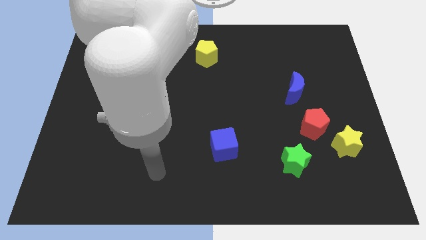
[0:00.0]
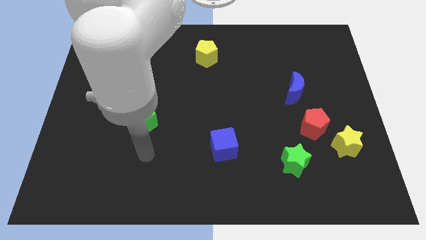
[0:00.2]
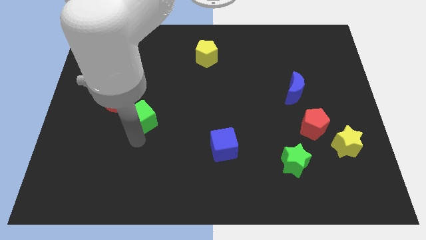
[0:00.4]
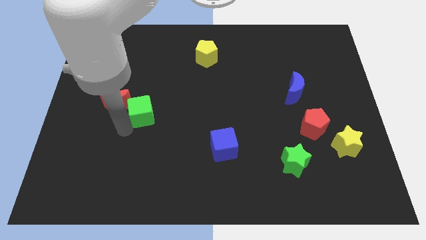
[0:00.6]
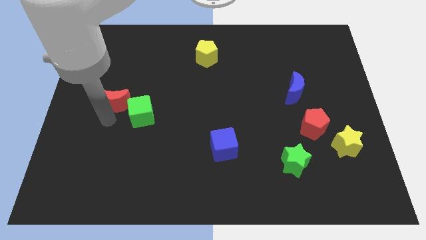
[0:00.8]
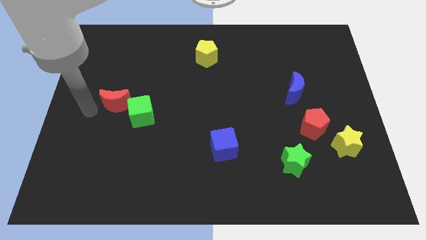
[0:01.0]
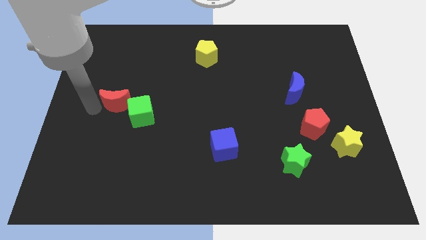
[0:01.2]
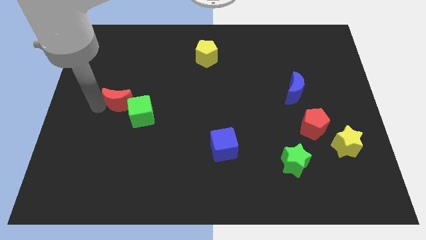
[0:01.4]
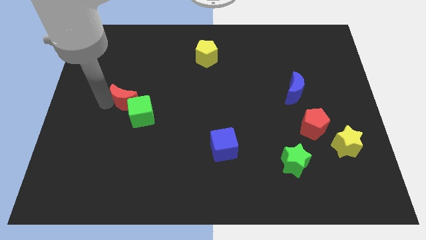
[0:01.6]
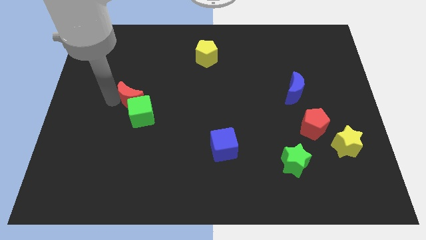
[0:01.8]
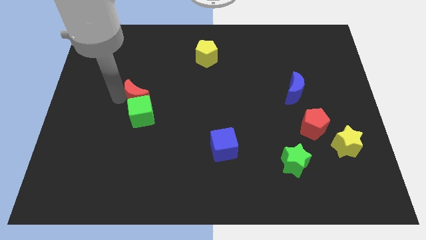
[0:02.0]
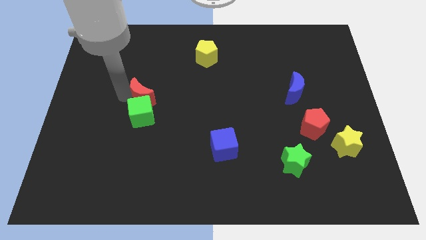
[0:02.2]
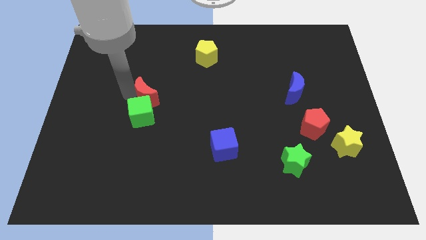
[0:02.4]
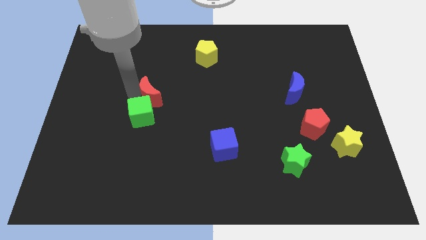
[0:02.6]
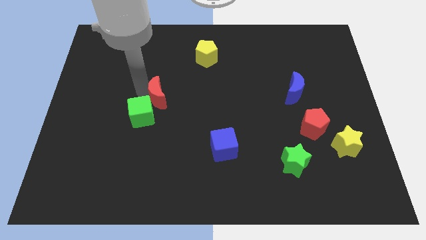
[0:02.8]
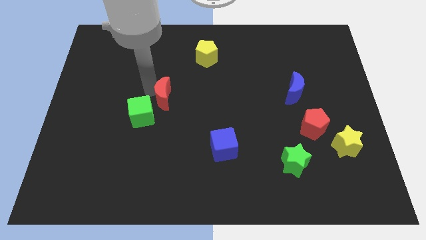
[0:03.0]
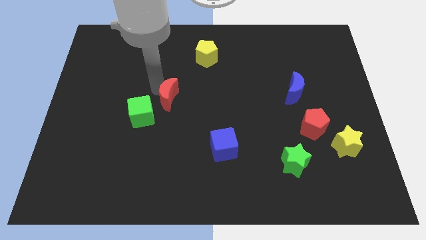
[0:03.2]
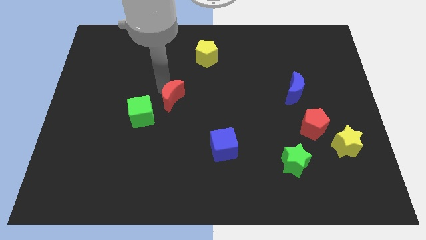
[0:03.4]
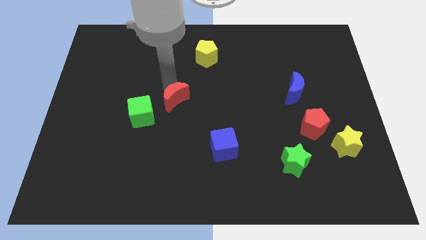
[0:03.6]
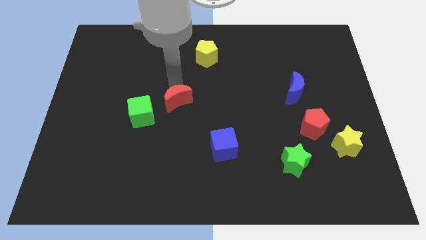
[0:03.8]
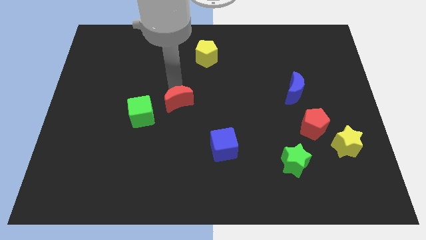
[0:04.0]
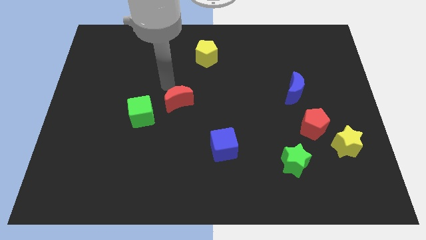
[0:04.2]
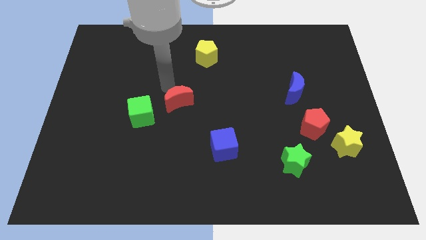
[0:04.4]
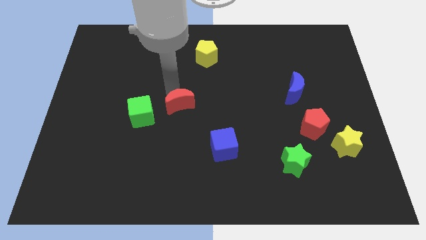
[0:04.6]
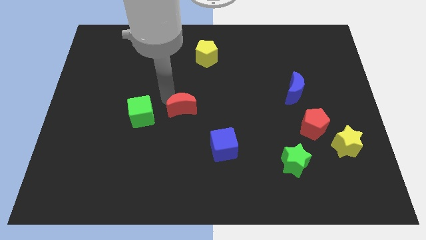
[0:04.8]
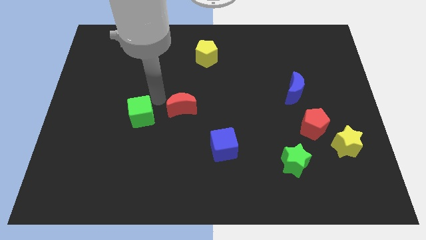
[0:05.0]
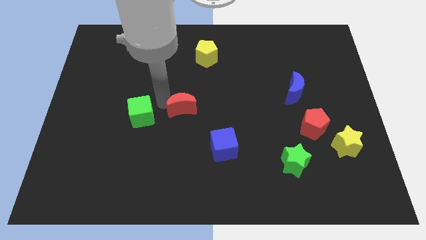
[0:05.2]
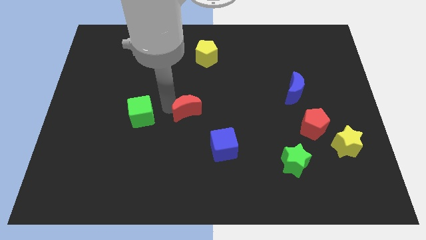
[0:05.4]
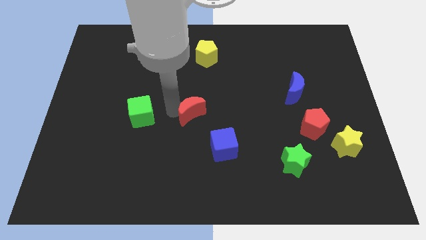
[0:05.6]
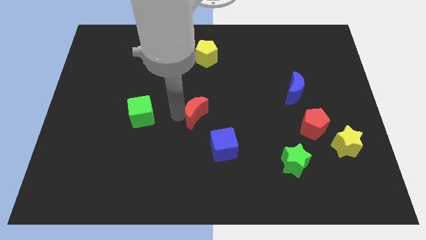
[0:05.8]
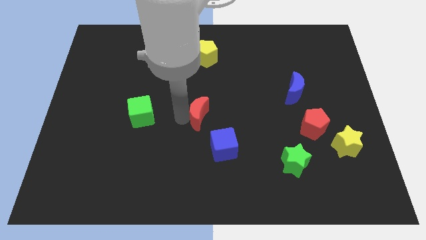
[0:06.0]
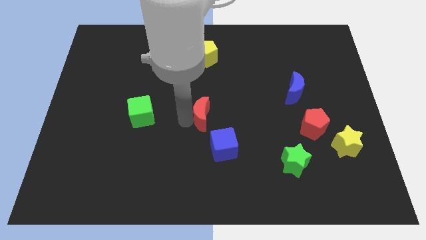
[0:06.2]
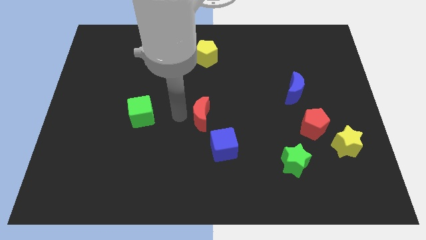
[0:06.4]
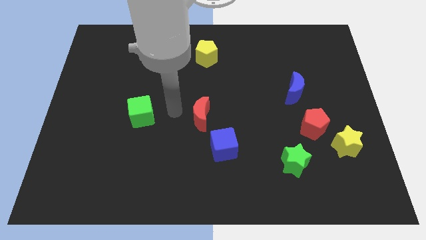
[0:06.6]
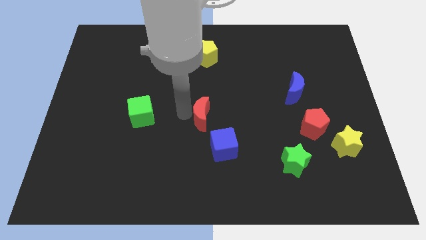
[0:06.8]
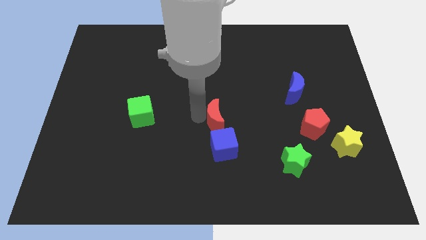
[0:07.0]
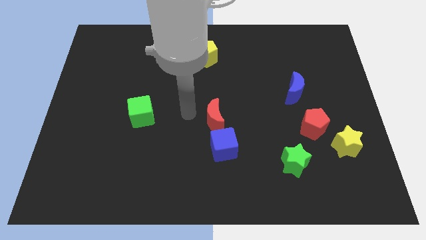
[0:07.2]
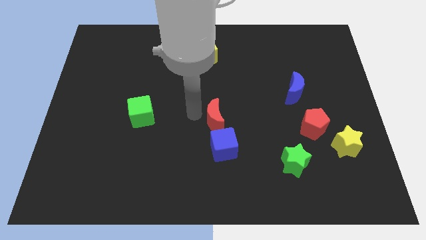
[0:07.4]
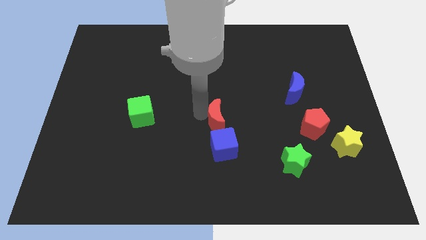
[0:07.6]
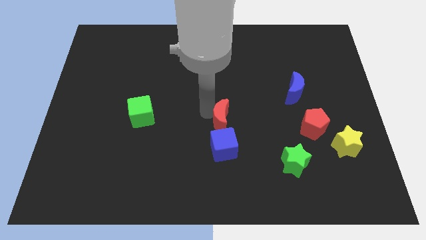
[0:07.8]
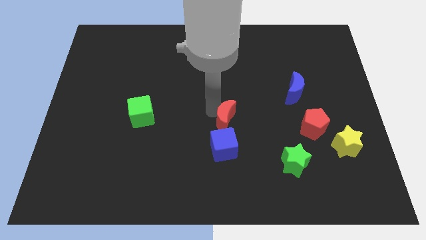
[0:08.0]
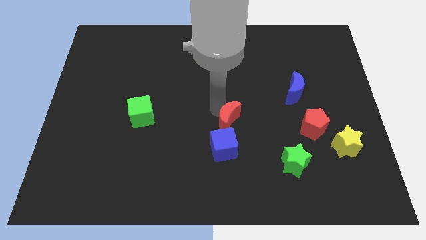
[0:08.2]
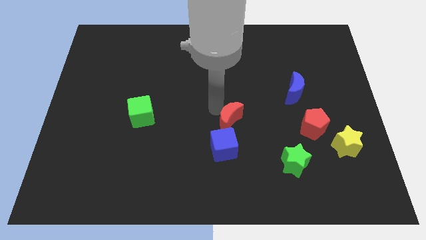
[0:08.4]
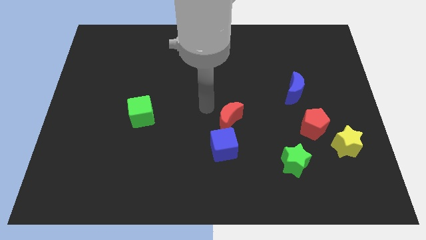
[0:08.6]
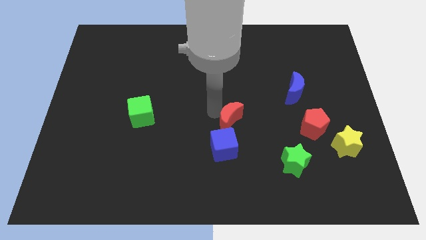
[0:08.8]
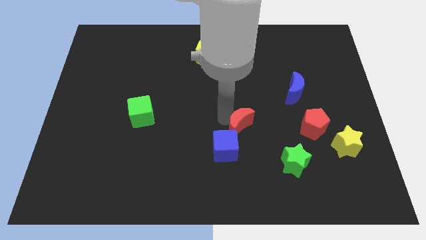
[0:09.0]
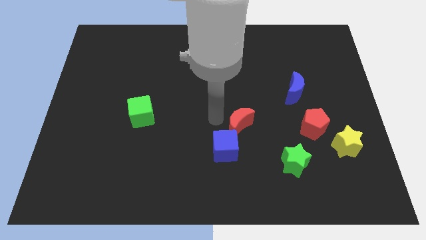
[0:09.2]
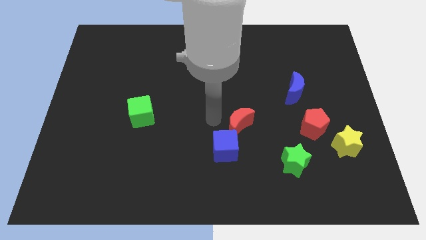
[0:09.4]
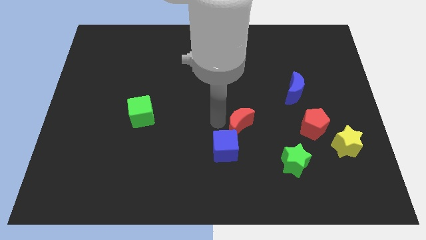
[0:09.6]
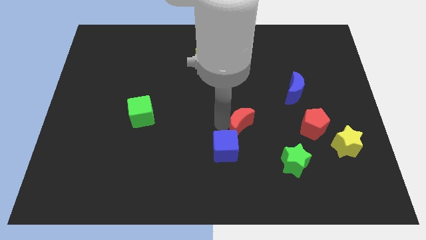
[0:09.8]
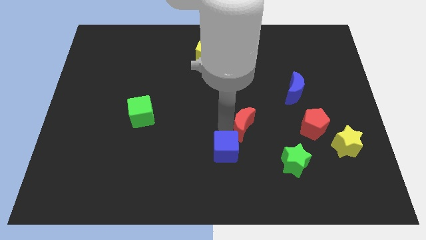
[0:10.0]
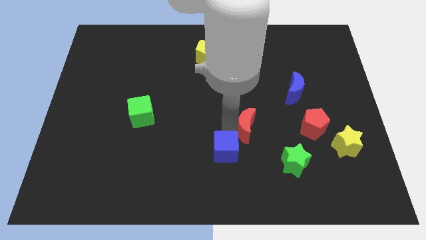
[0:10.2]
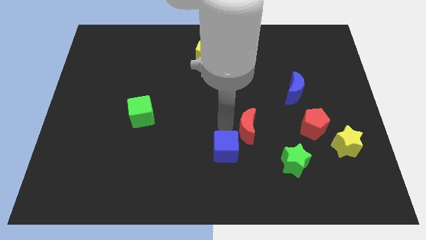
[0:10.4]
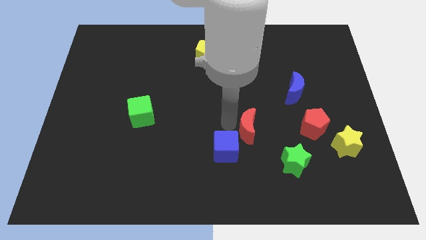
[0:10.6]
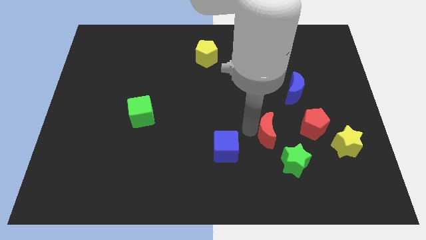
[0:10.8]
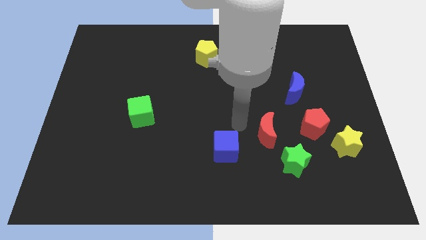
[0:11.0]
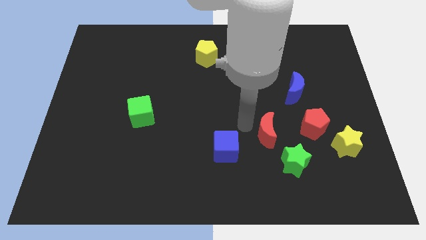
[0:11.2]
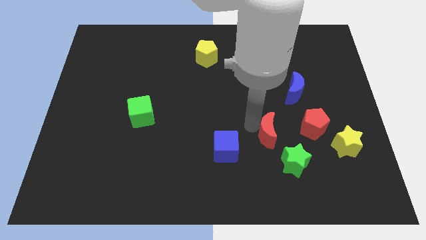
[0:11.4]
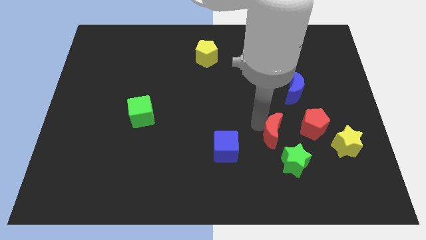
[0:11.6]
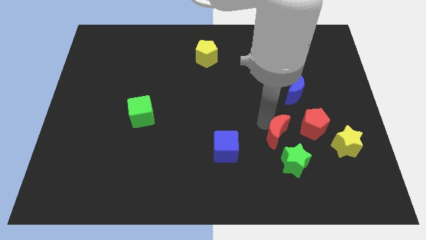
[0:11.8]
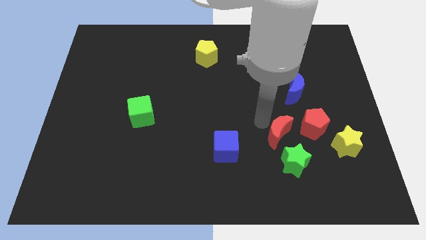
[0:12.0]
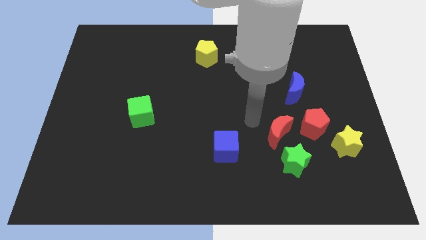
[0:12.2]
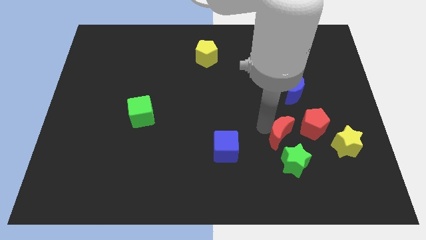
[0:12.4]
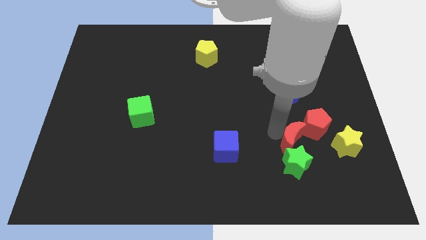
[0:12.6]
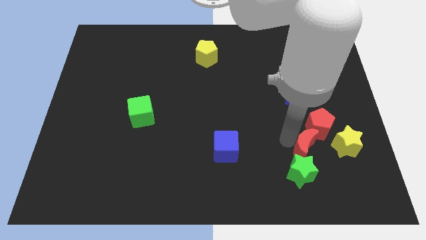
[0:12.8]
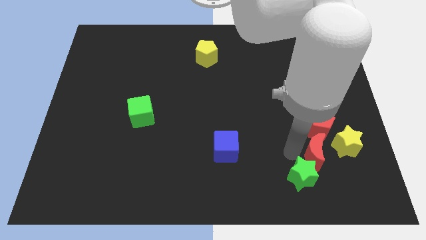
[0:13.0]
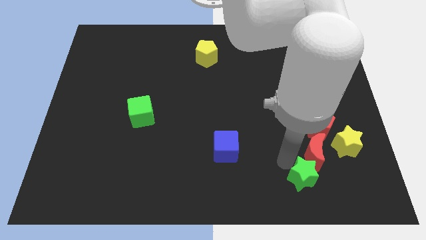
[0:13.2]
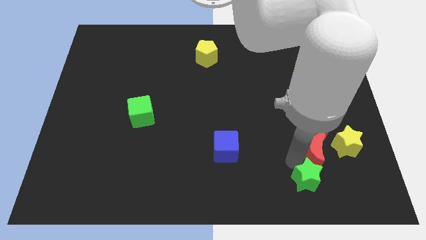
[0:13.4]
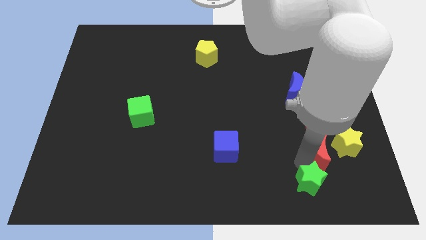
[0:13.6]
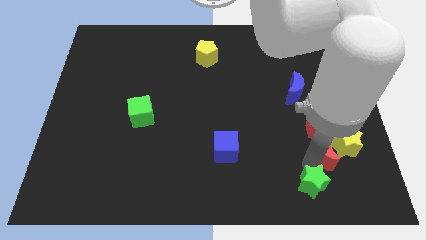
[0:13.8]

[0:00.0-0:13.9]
put the red moon close to the yellow star

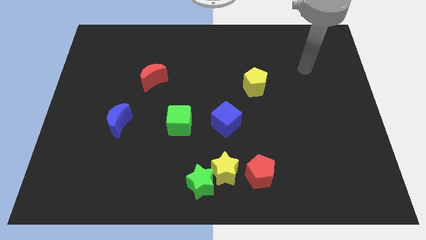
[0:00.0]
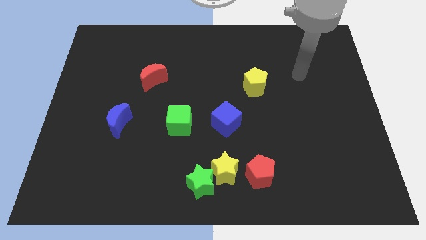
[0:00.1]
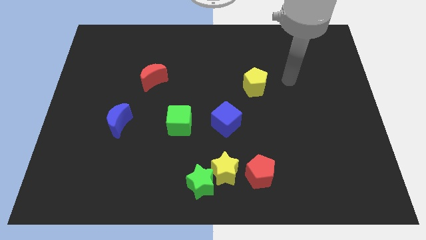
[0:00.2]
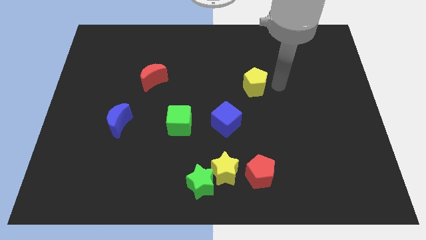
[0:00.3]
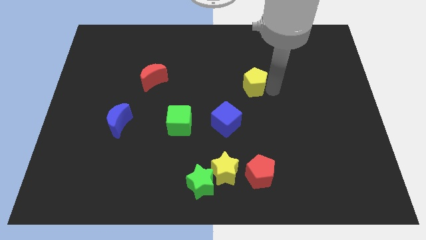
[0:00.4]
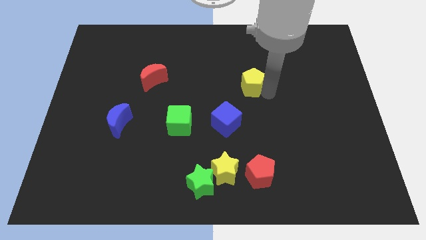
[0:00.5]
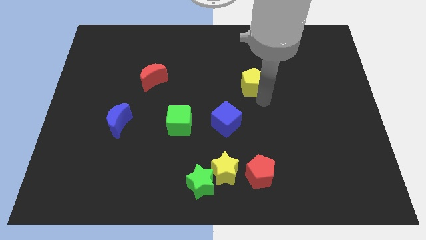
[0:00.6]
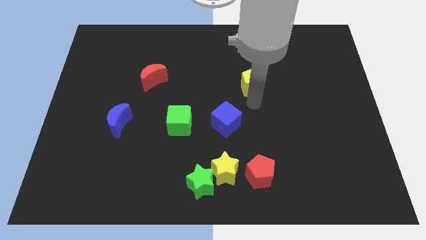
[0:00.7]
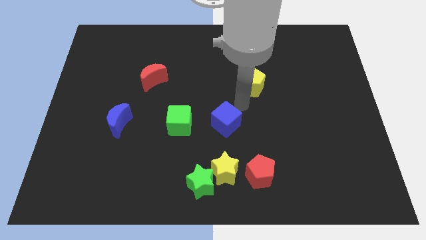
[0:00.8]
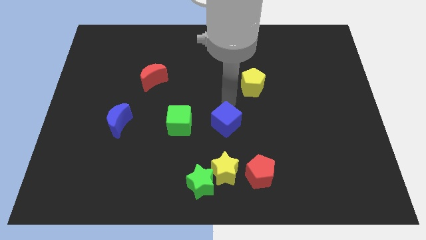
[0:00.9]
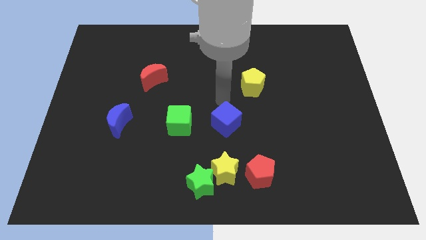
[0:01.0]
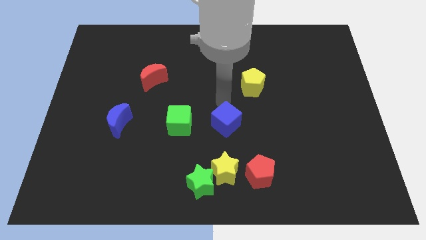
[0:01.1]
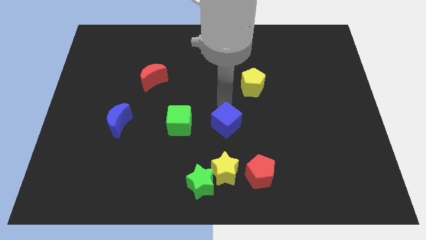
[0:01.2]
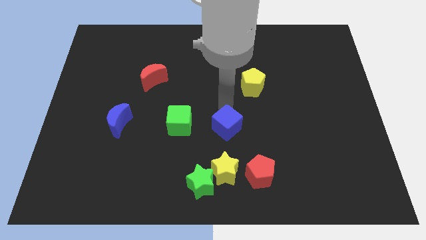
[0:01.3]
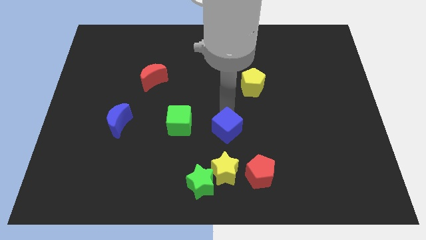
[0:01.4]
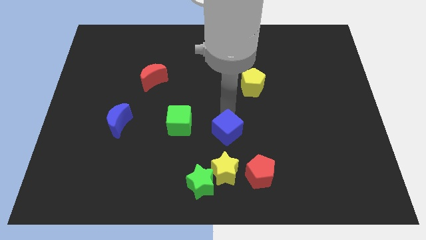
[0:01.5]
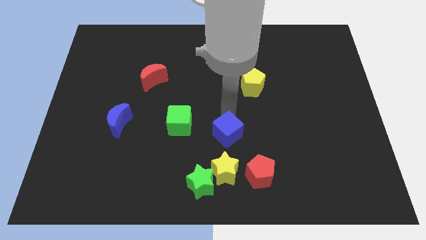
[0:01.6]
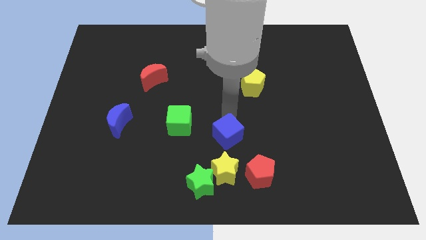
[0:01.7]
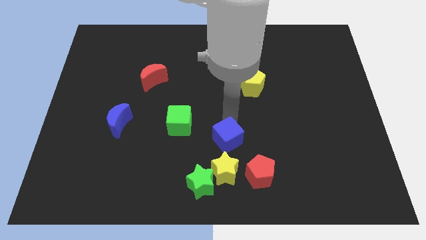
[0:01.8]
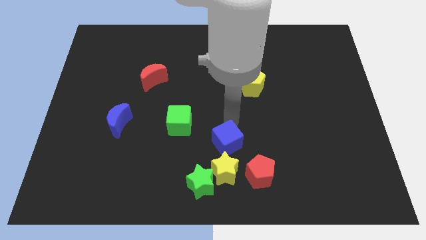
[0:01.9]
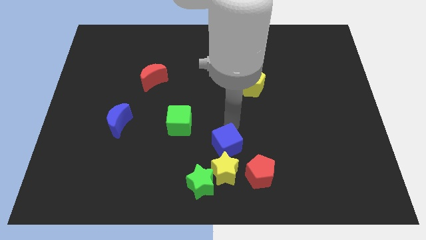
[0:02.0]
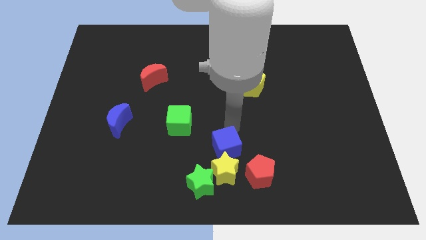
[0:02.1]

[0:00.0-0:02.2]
push the blue cube close to the yellow star
